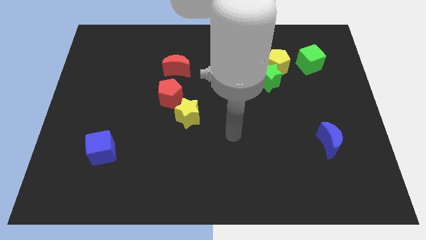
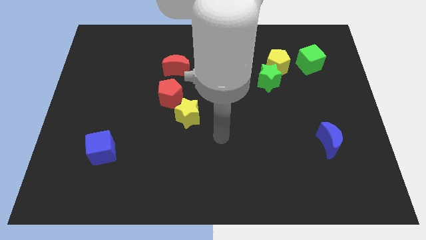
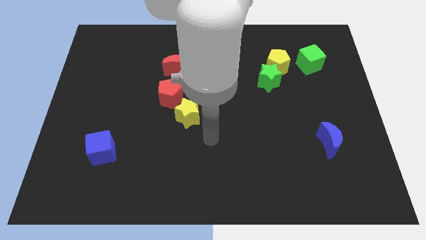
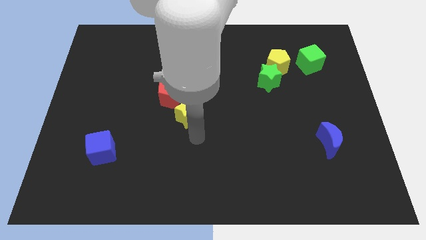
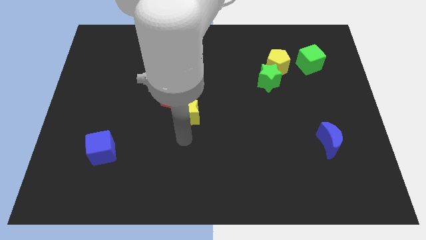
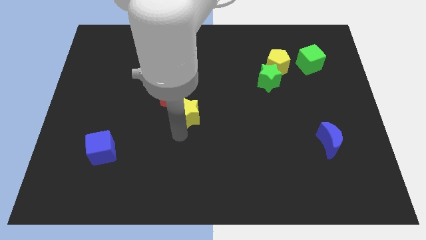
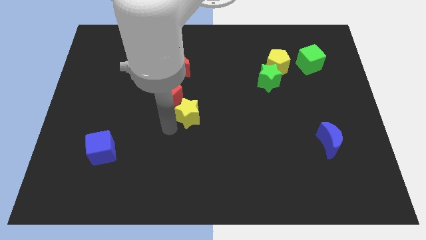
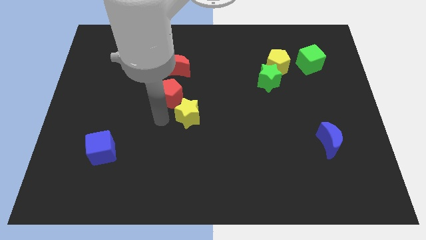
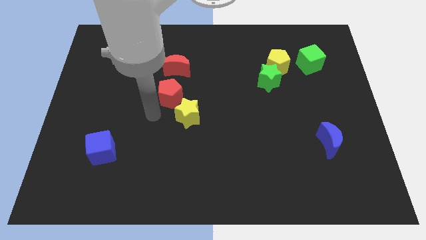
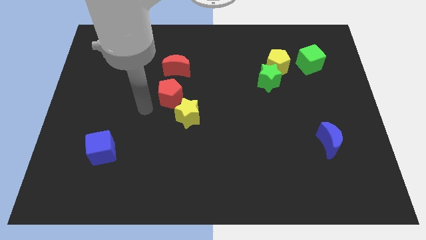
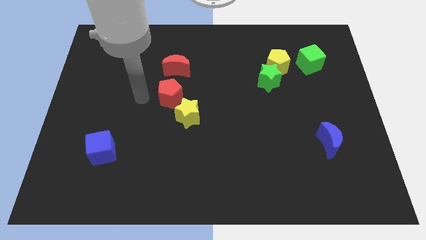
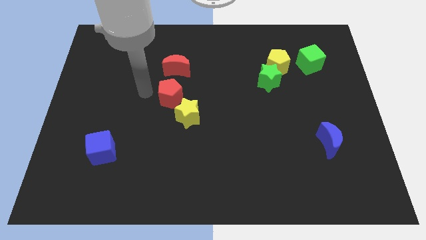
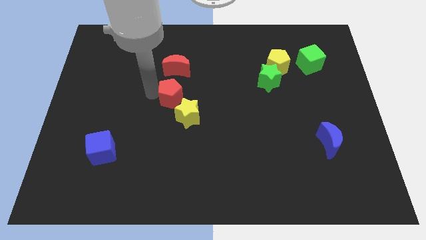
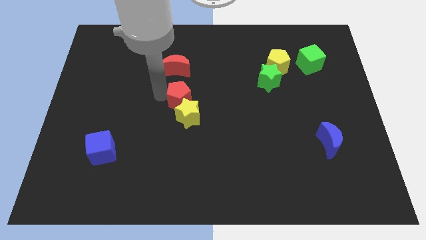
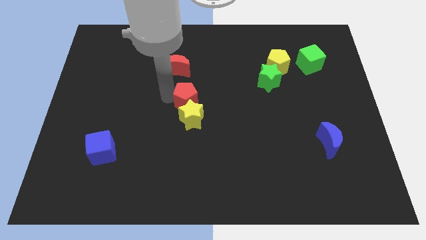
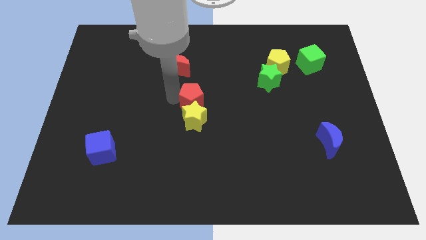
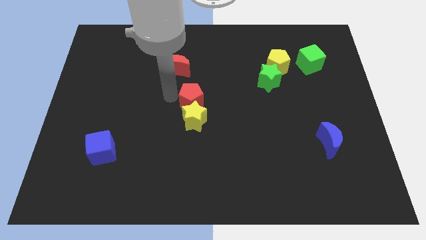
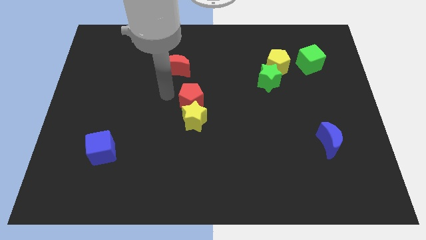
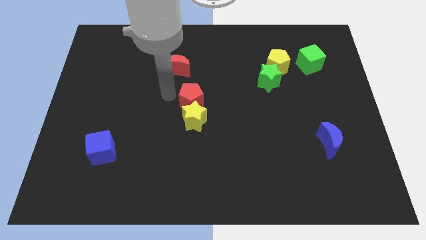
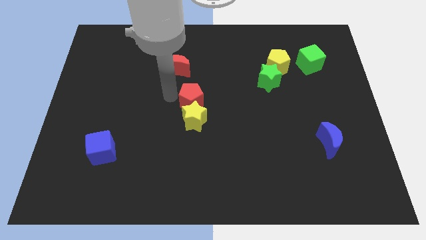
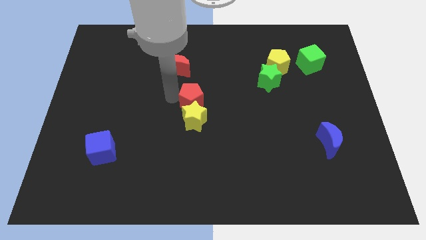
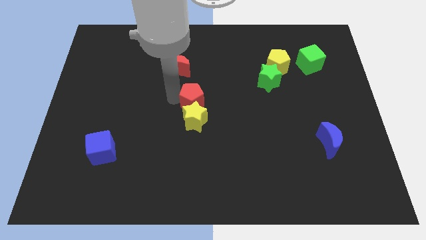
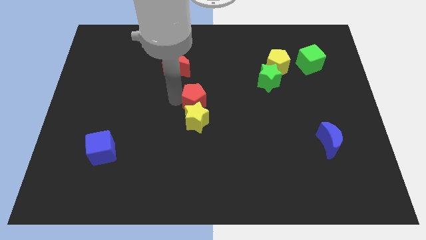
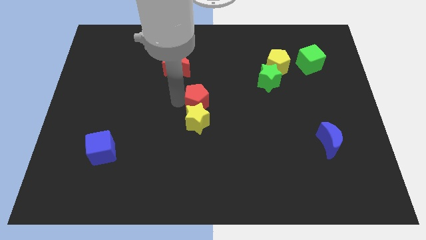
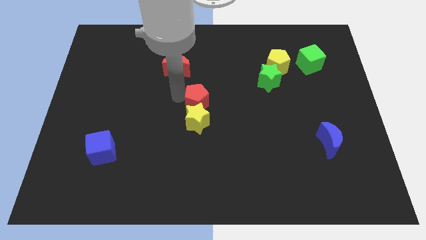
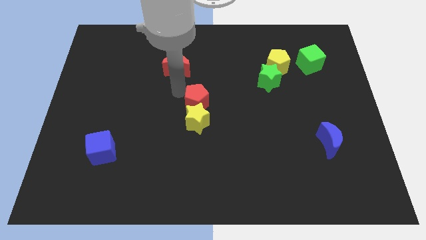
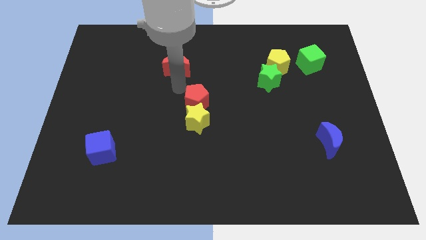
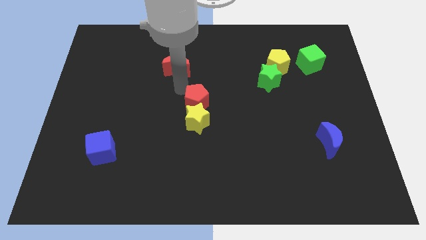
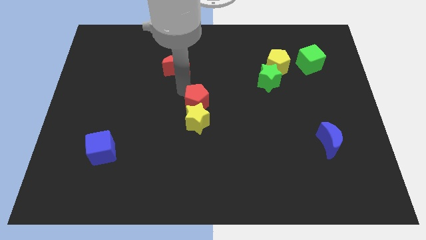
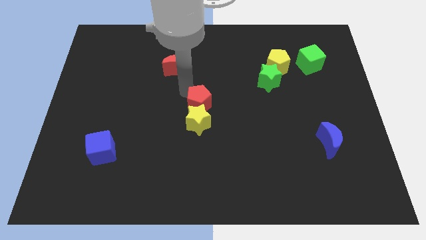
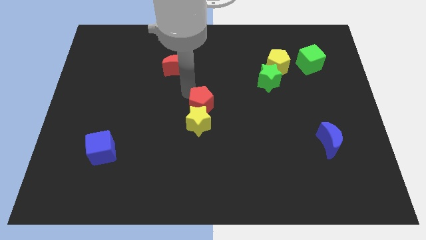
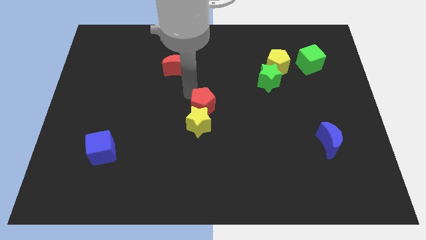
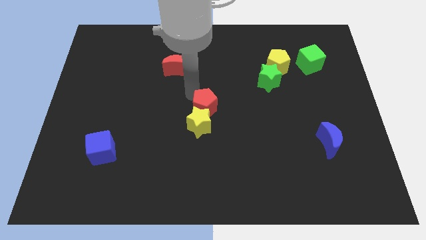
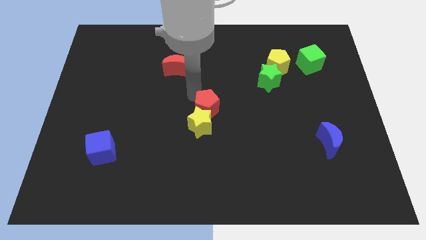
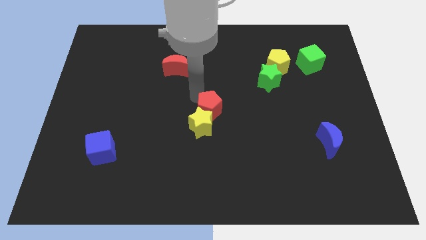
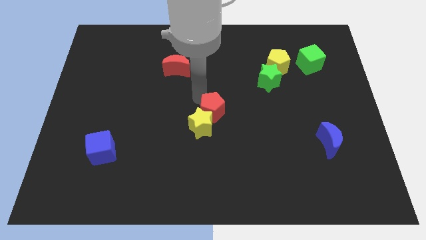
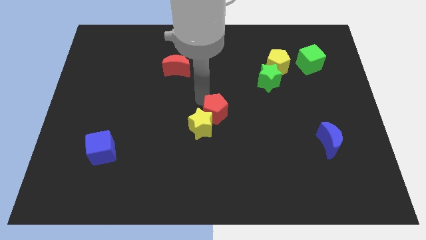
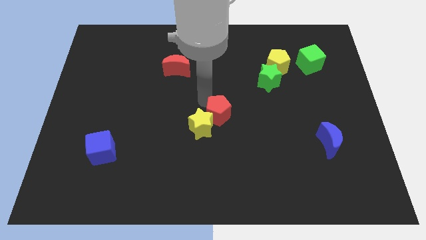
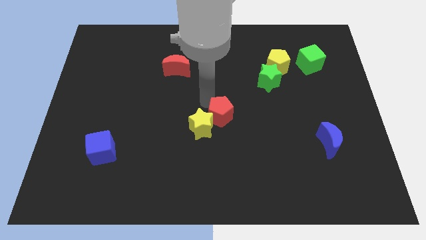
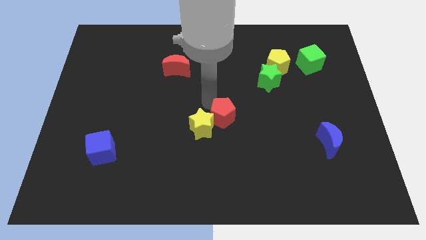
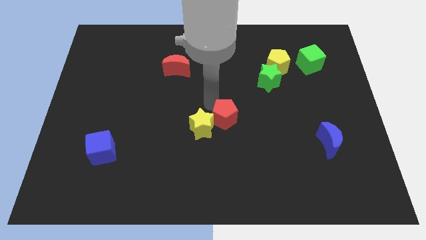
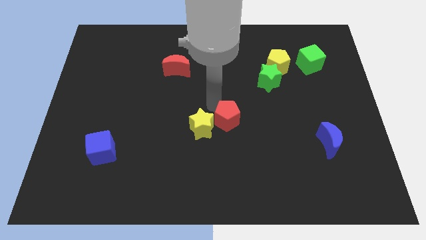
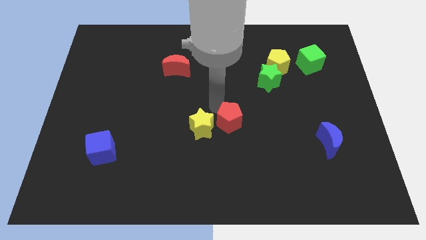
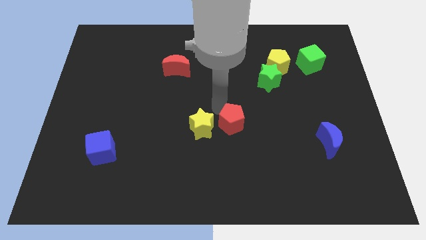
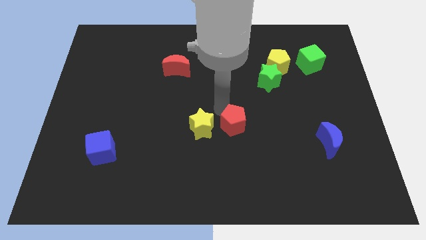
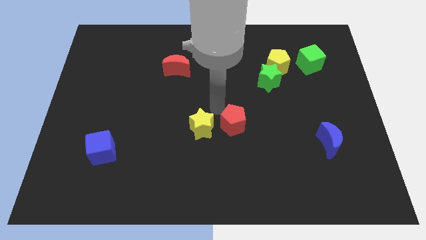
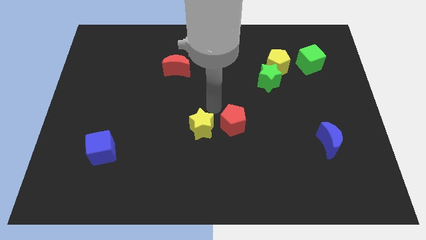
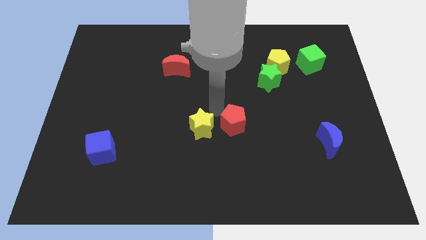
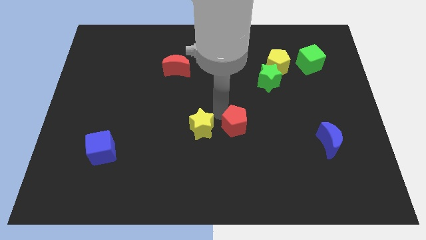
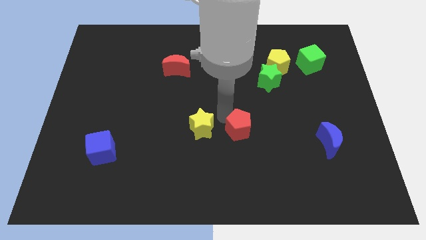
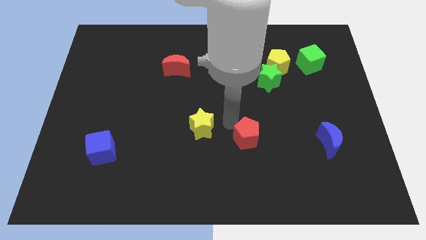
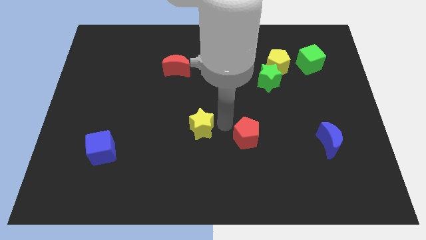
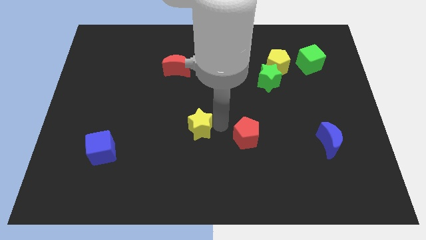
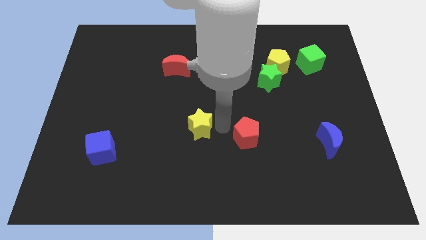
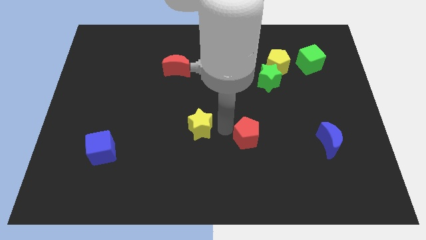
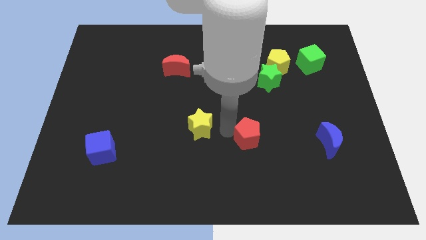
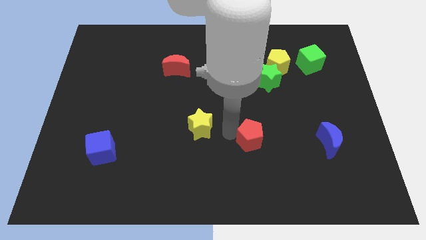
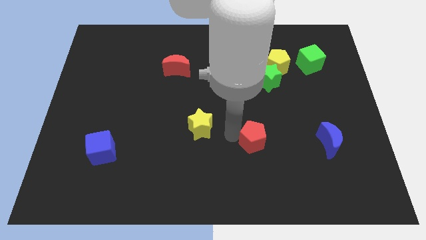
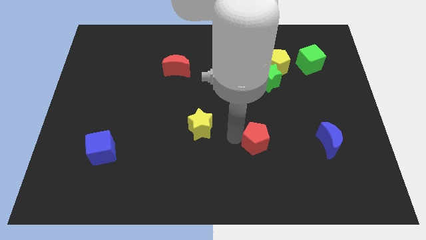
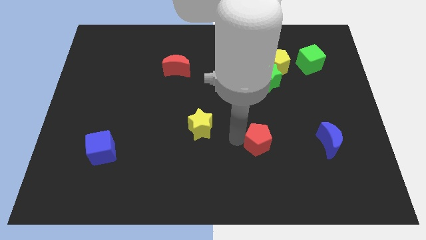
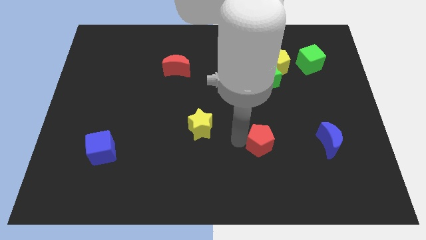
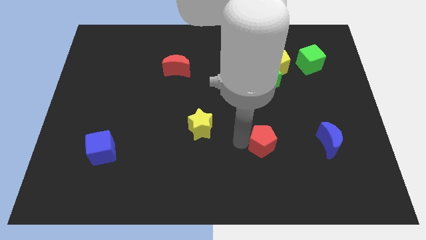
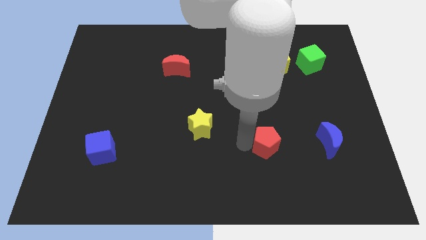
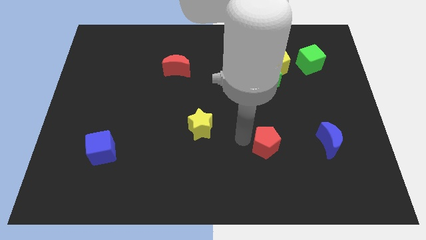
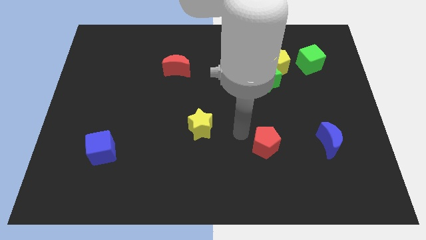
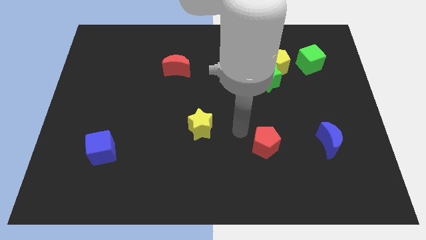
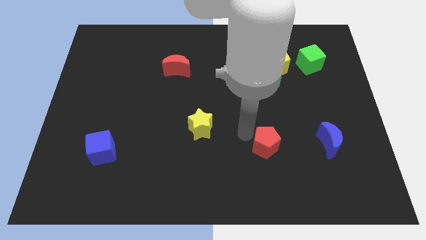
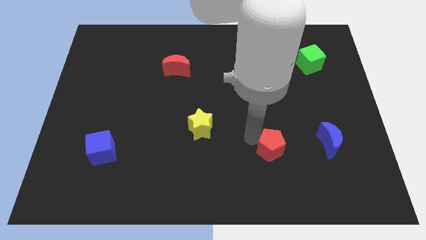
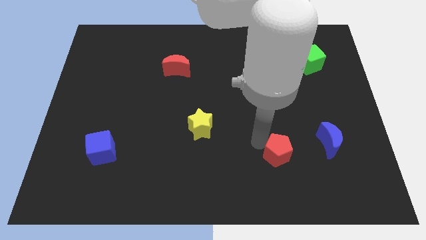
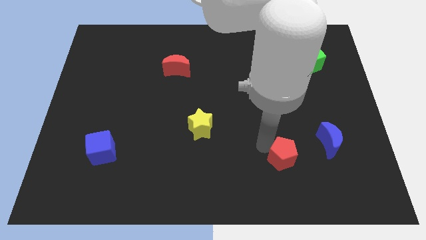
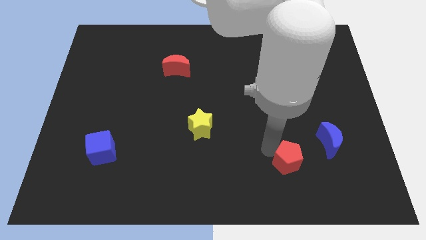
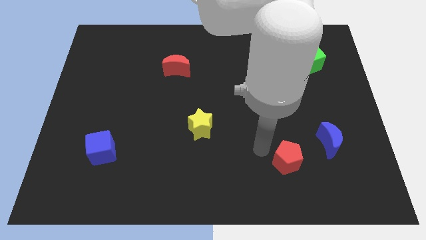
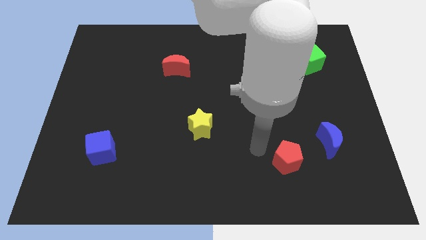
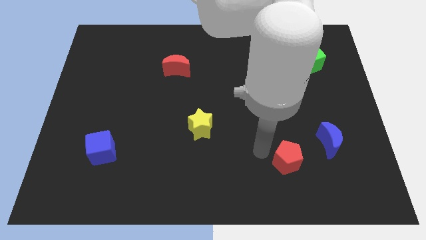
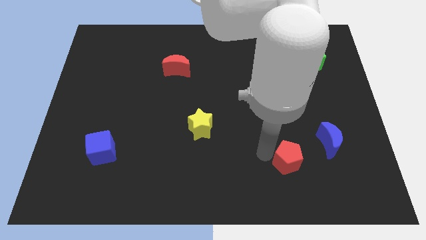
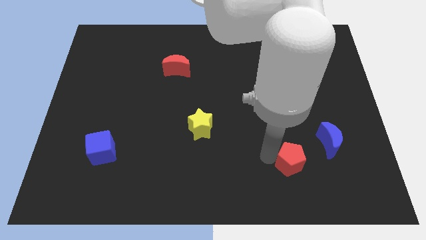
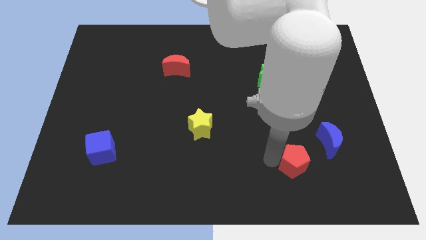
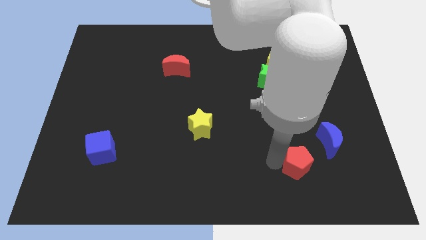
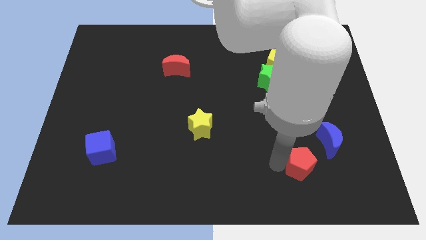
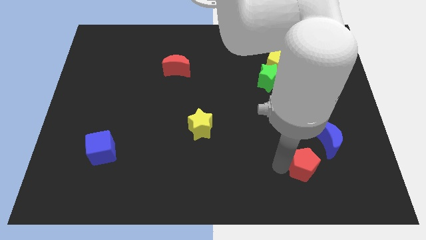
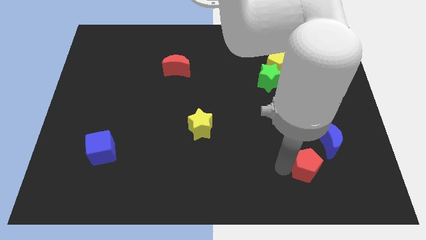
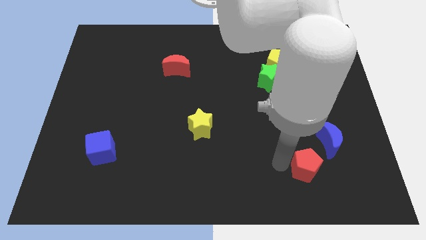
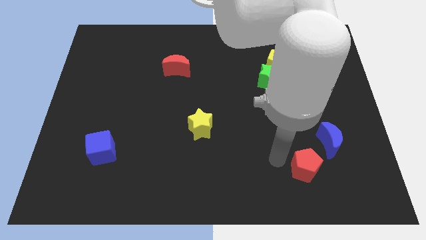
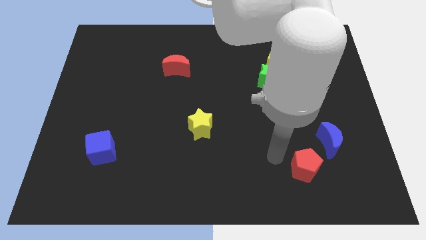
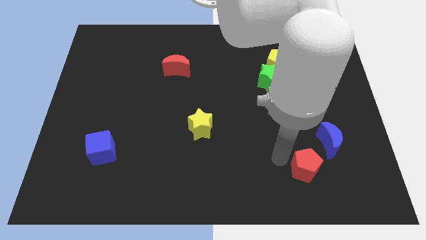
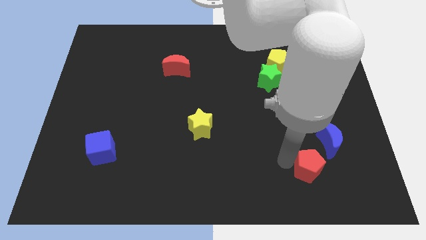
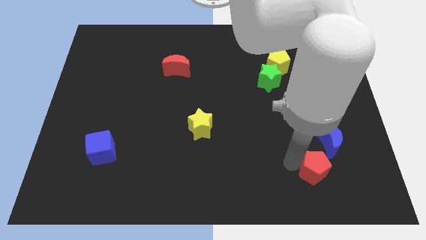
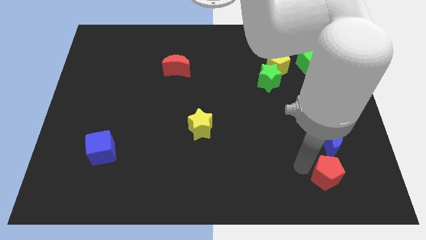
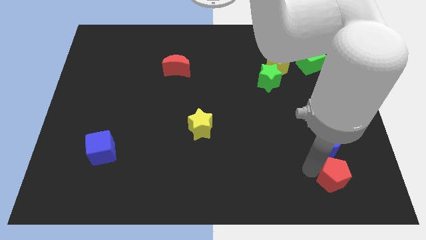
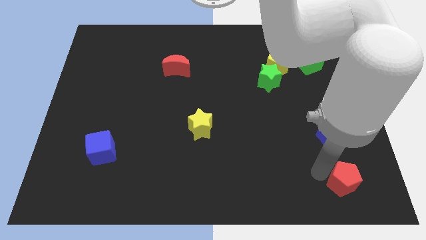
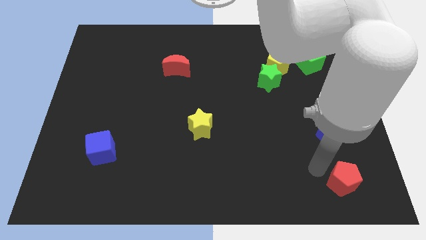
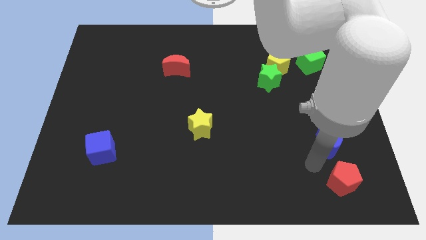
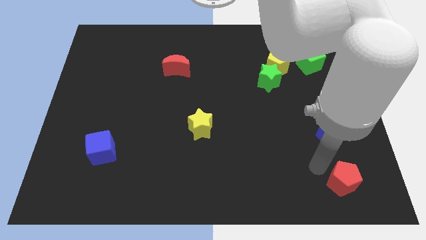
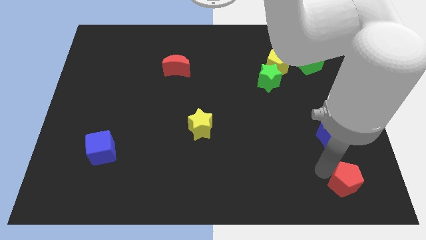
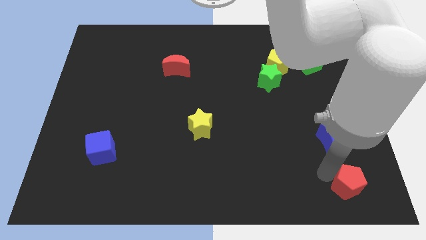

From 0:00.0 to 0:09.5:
slide the red pentagon to the bottom right
